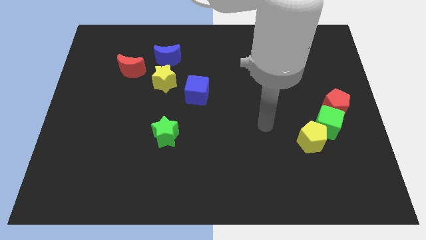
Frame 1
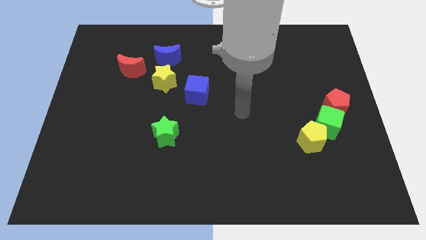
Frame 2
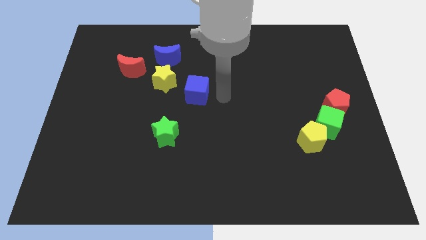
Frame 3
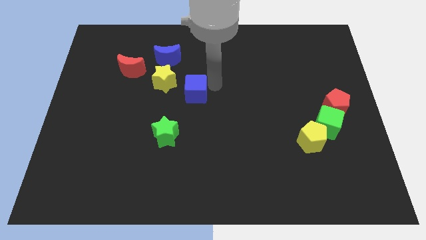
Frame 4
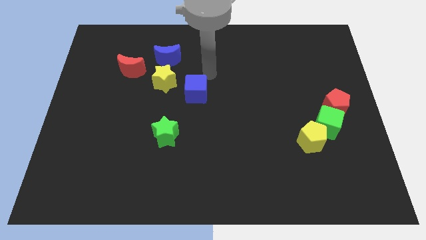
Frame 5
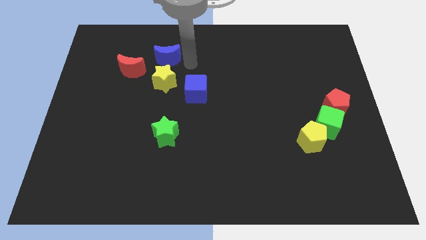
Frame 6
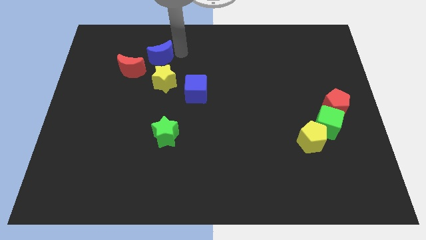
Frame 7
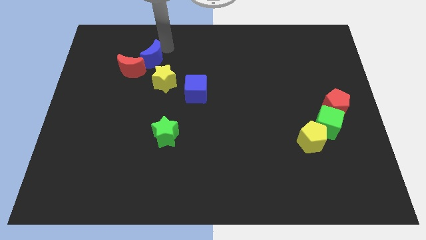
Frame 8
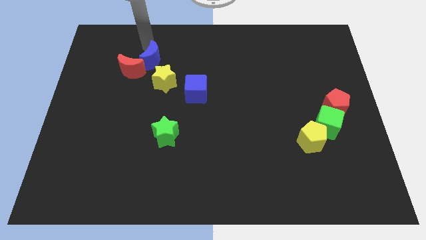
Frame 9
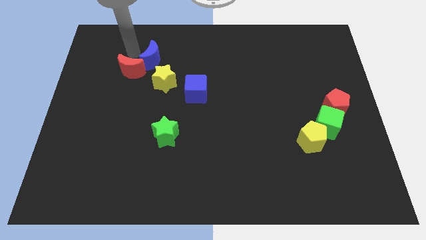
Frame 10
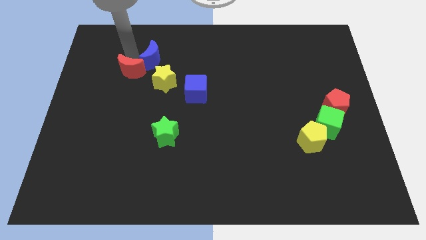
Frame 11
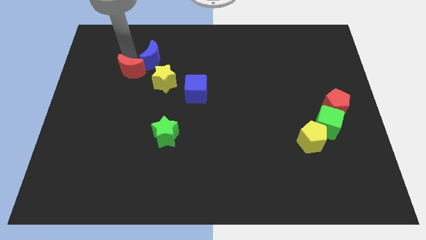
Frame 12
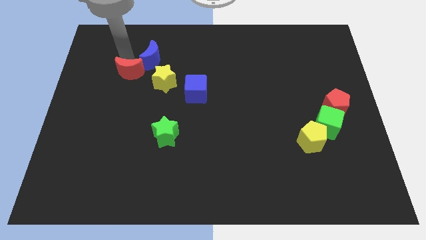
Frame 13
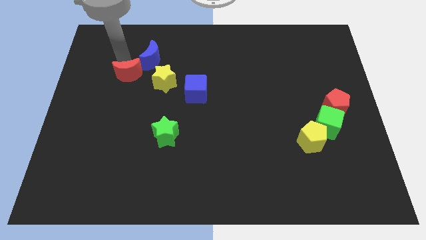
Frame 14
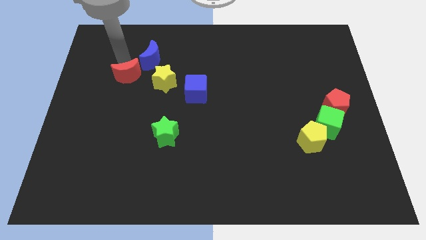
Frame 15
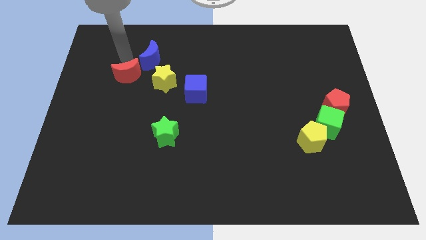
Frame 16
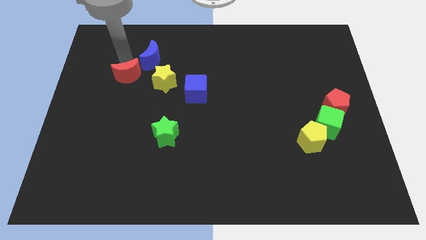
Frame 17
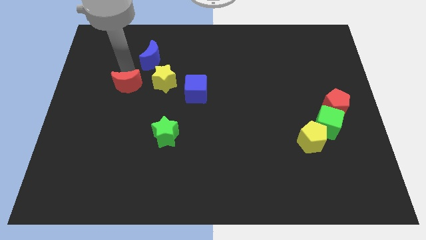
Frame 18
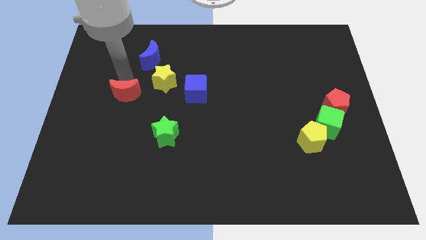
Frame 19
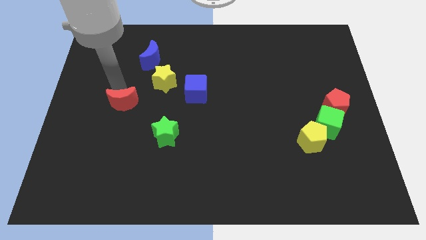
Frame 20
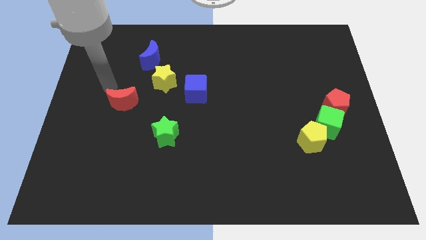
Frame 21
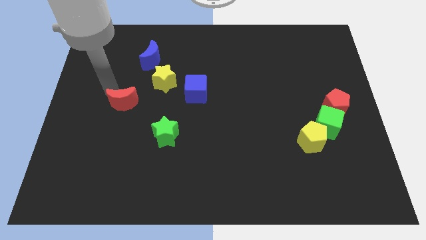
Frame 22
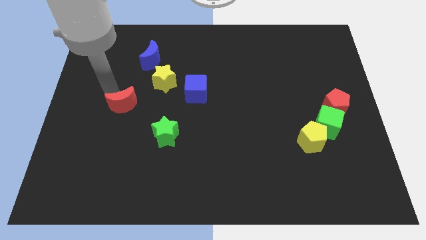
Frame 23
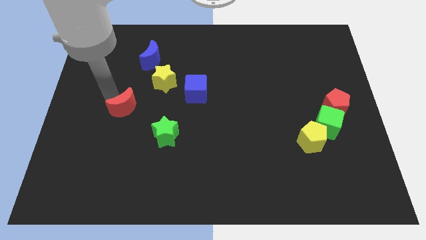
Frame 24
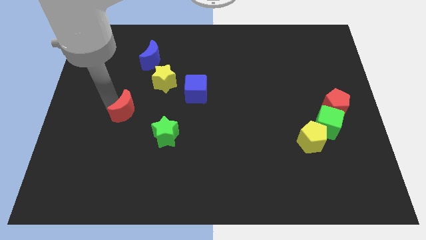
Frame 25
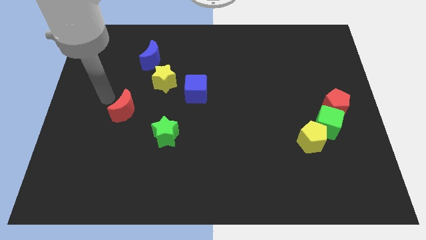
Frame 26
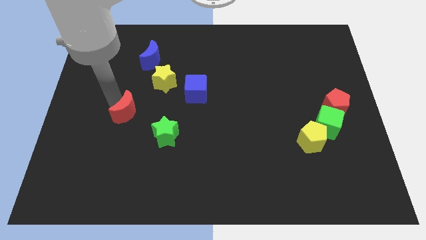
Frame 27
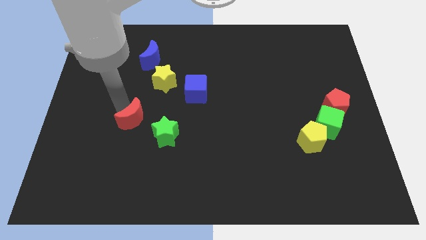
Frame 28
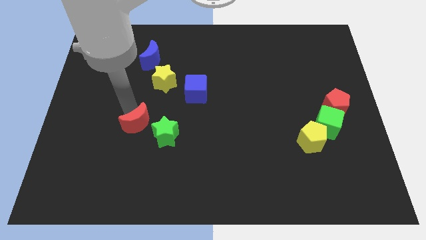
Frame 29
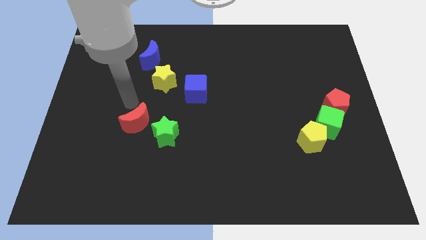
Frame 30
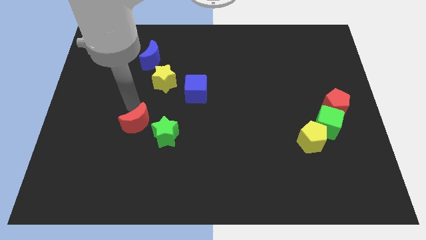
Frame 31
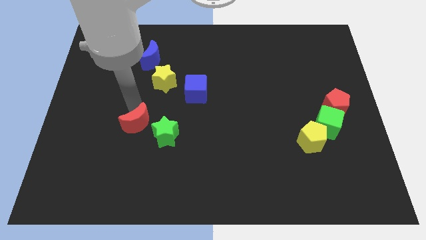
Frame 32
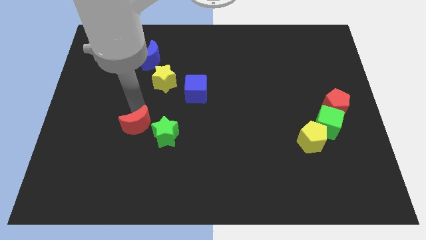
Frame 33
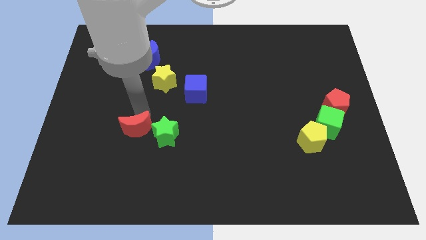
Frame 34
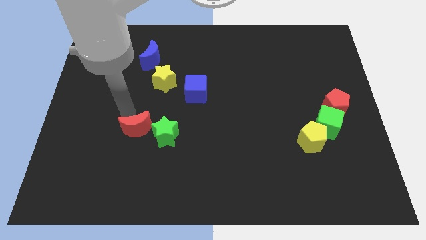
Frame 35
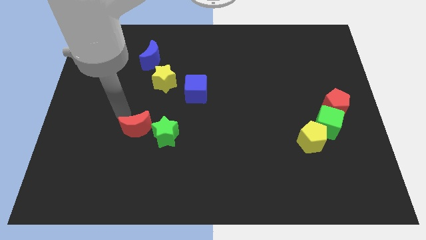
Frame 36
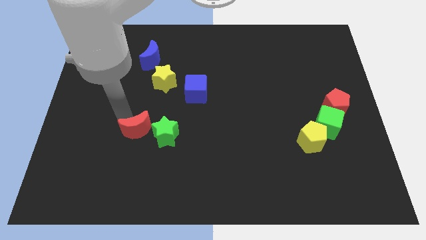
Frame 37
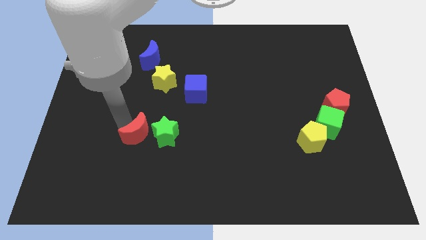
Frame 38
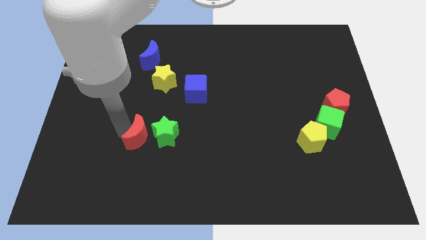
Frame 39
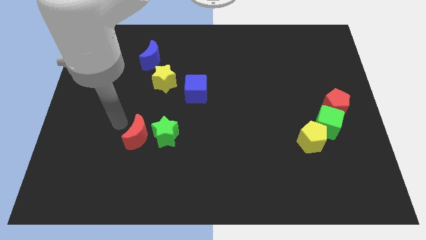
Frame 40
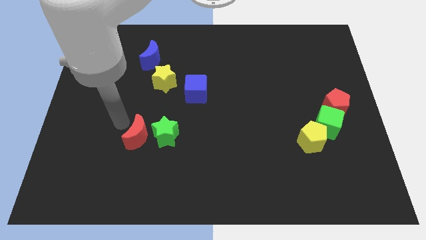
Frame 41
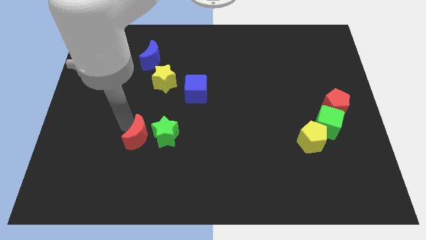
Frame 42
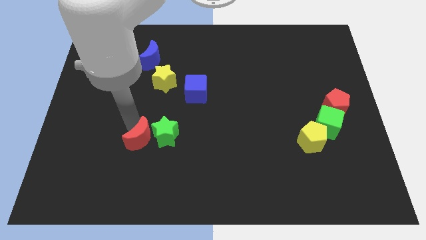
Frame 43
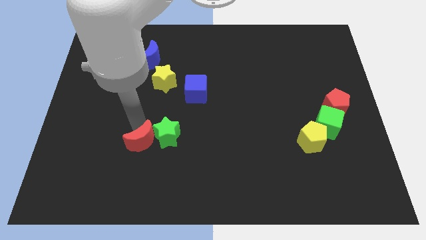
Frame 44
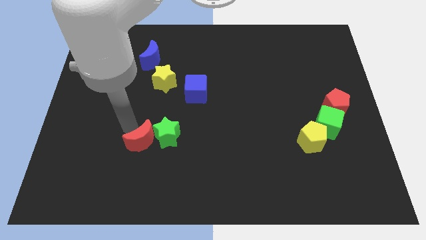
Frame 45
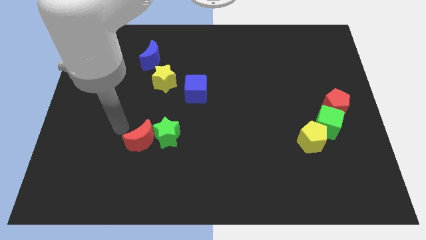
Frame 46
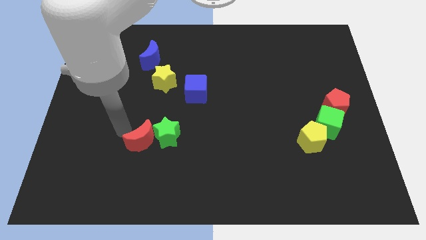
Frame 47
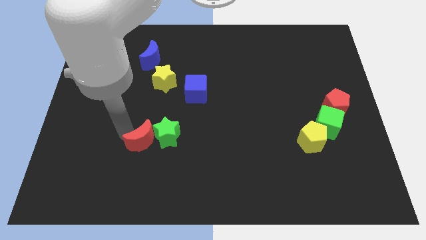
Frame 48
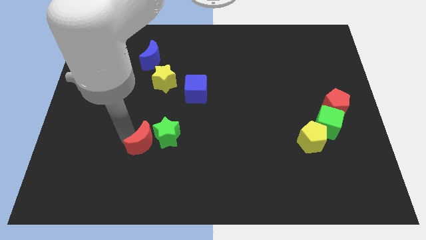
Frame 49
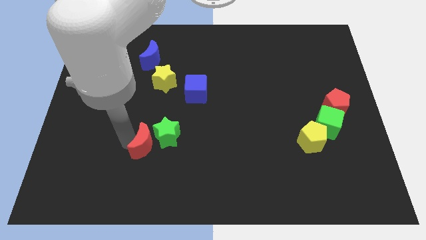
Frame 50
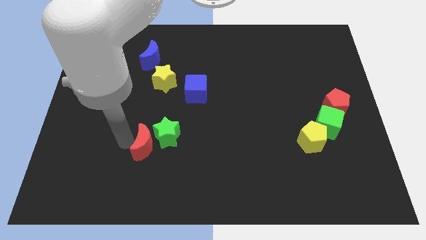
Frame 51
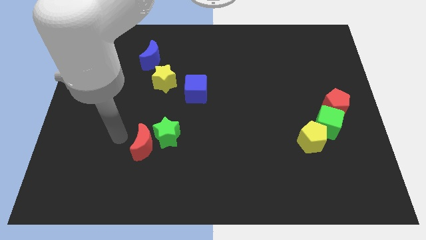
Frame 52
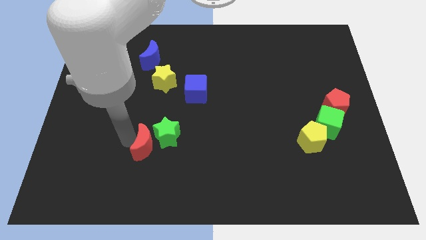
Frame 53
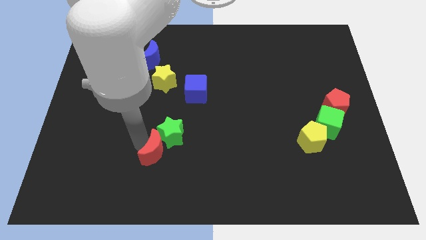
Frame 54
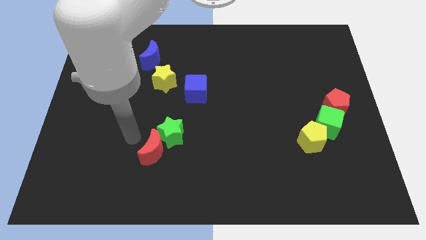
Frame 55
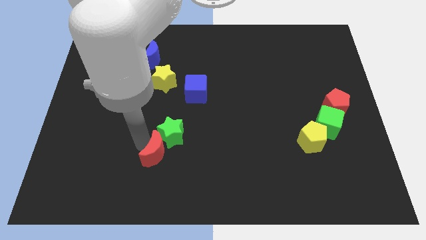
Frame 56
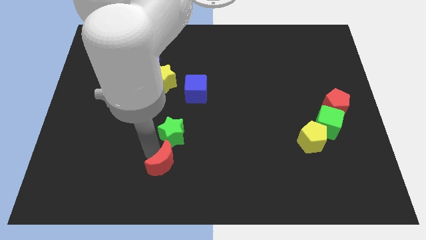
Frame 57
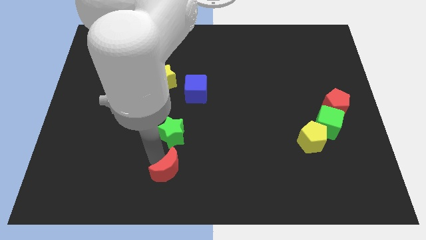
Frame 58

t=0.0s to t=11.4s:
move the red moon to the bottom side

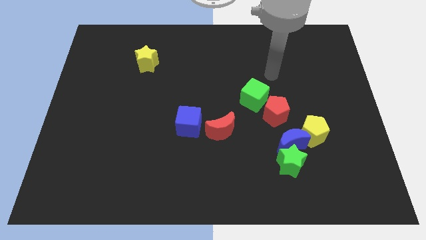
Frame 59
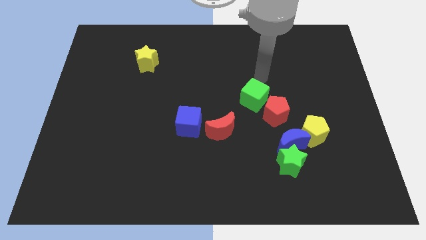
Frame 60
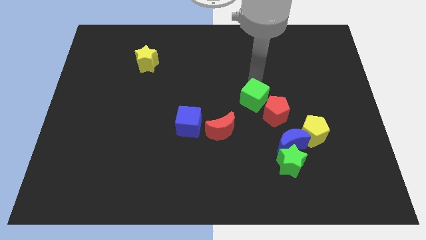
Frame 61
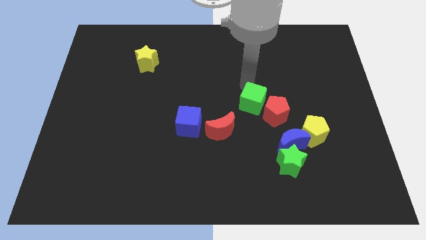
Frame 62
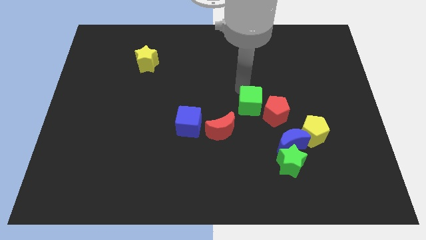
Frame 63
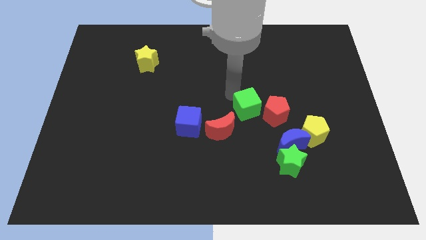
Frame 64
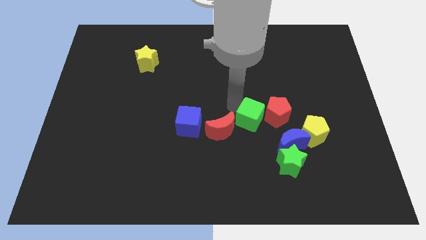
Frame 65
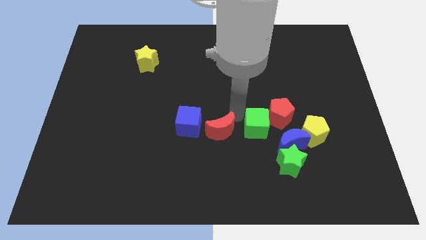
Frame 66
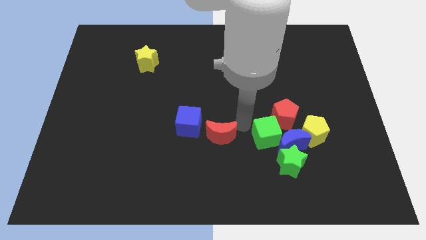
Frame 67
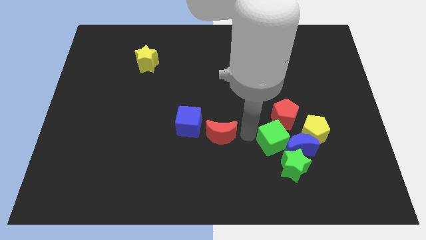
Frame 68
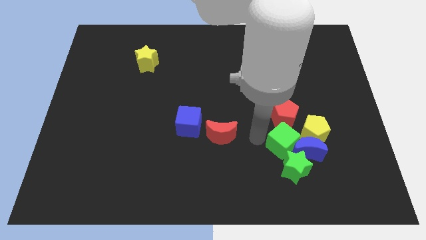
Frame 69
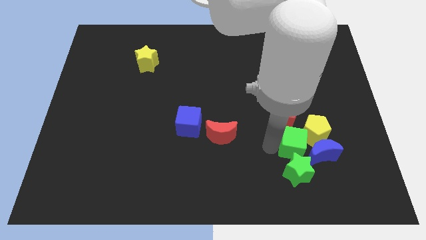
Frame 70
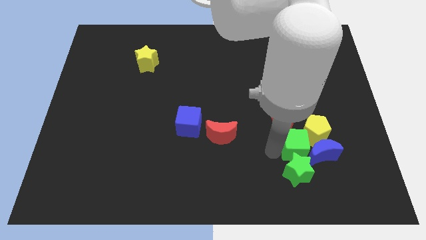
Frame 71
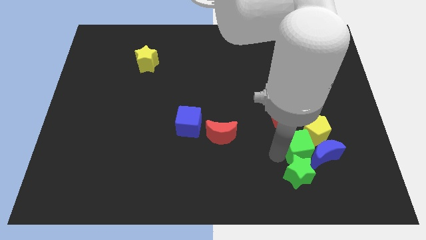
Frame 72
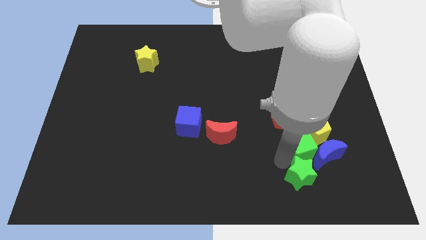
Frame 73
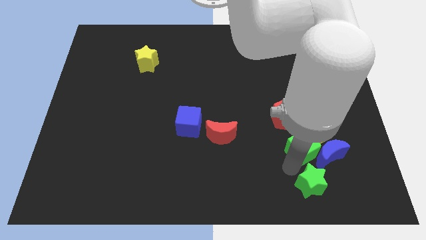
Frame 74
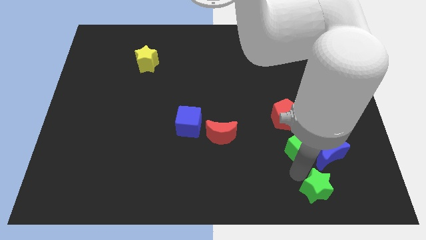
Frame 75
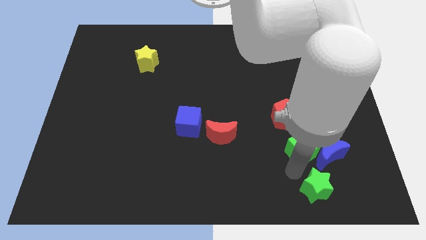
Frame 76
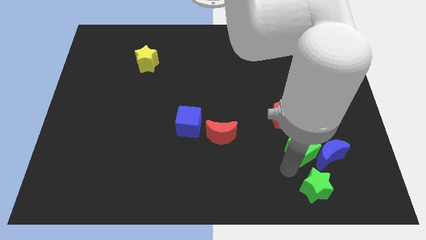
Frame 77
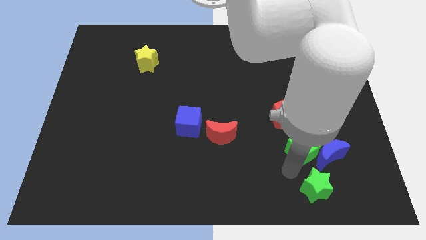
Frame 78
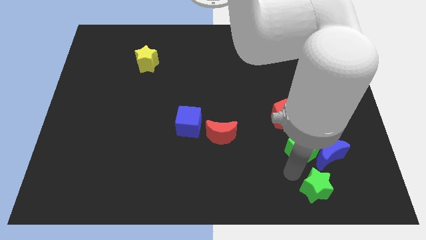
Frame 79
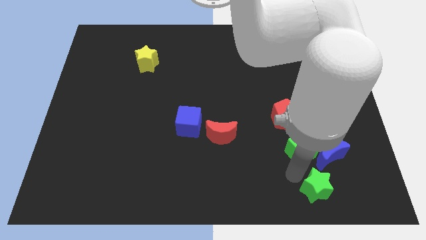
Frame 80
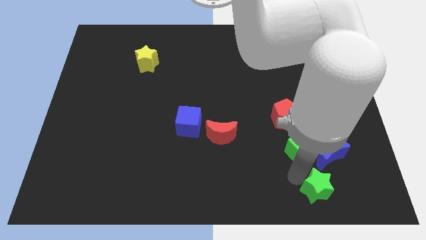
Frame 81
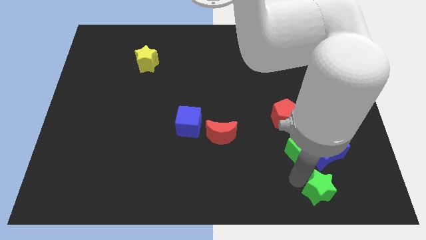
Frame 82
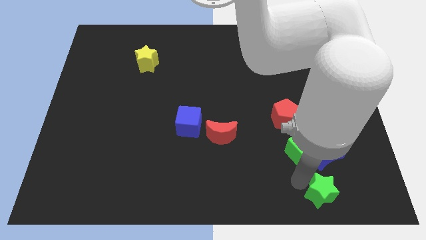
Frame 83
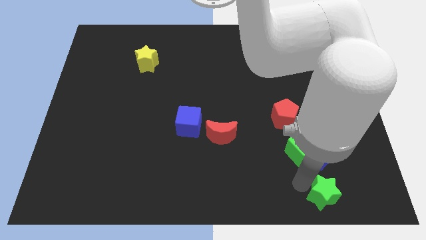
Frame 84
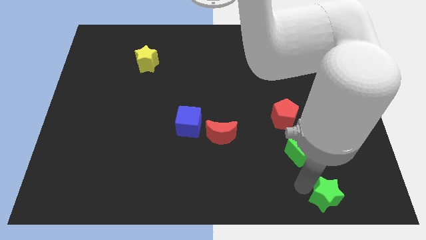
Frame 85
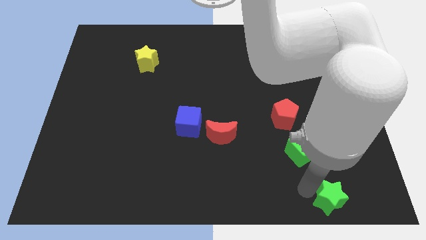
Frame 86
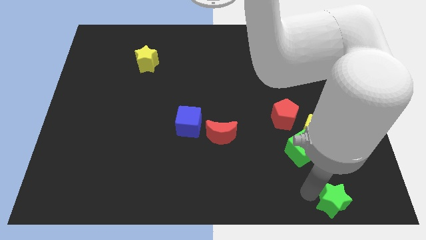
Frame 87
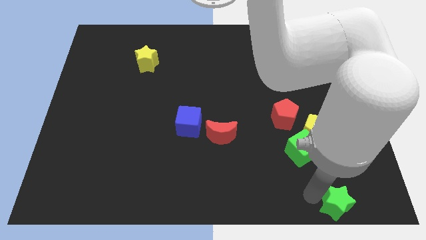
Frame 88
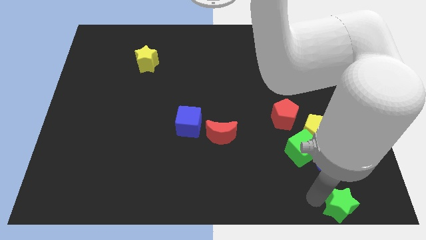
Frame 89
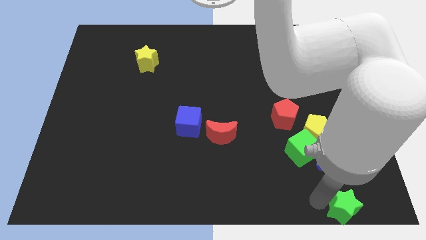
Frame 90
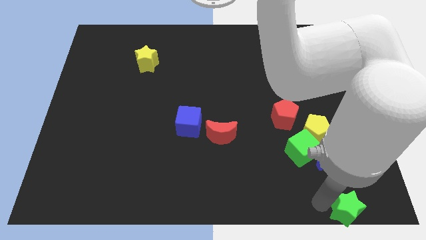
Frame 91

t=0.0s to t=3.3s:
put the green star to the bottom right
